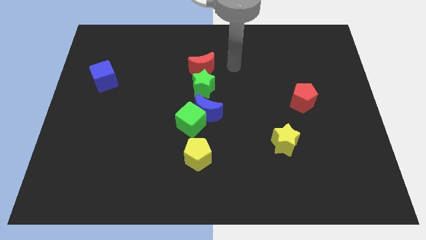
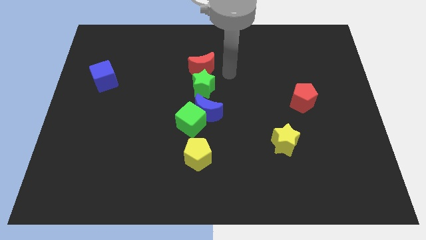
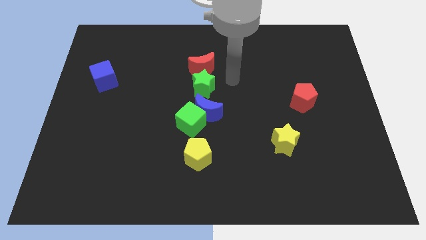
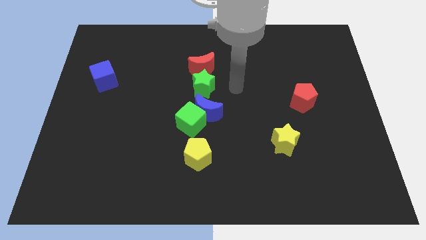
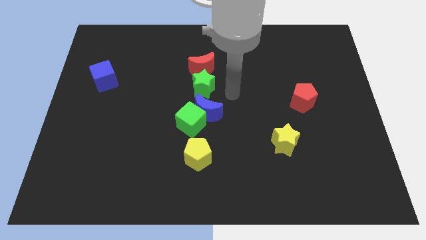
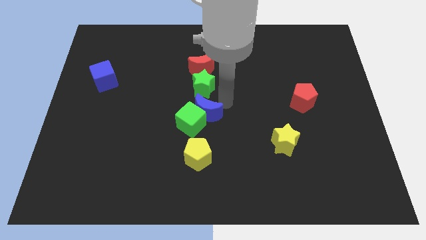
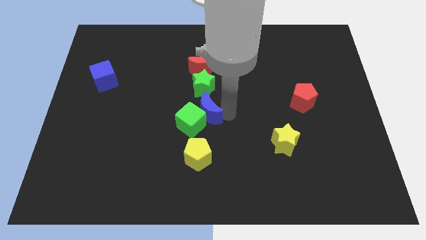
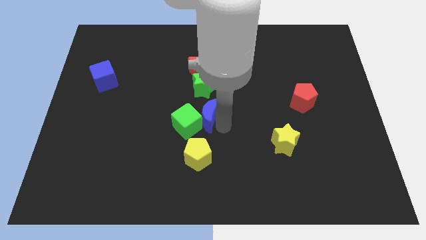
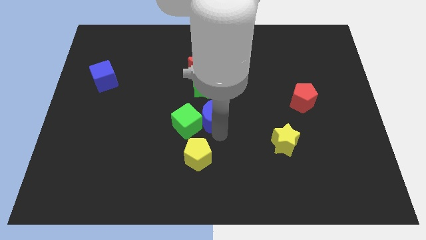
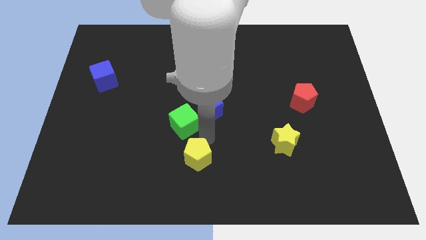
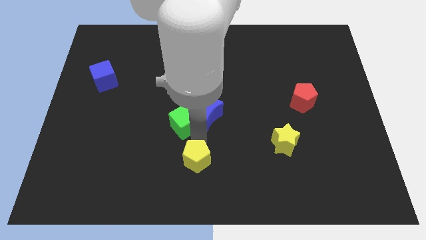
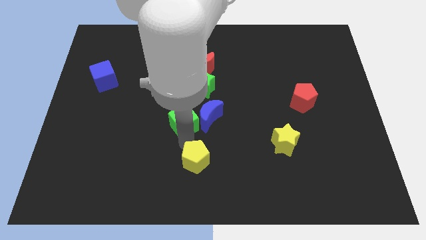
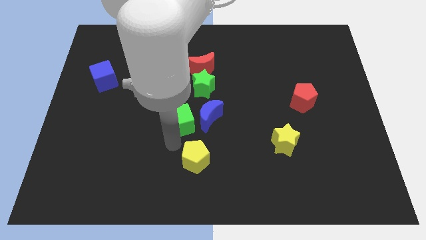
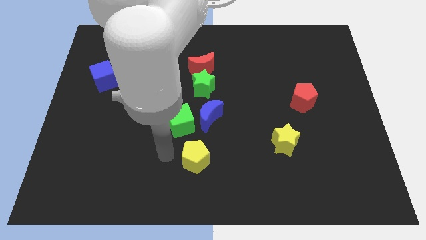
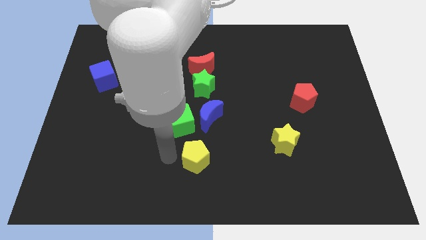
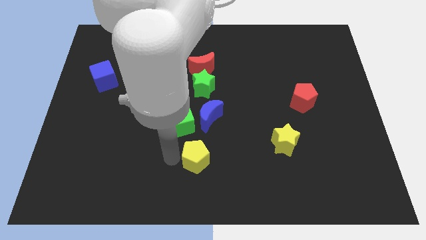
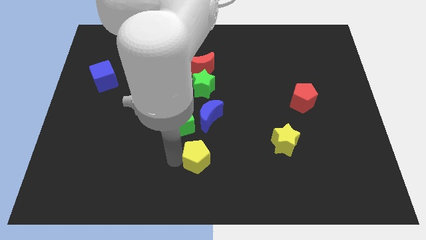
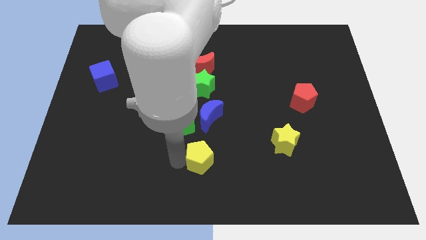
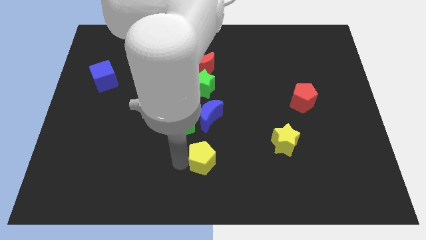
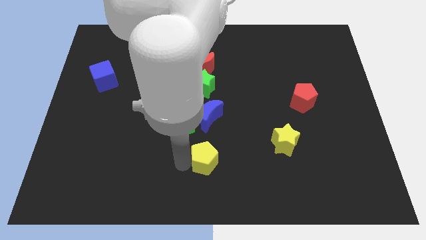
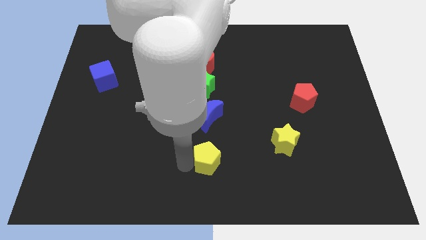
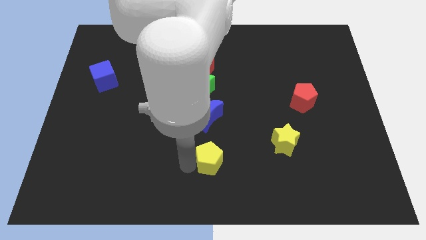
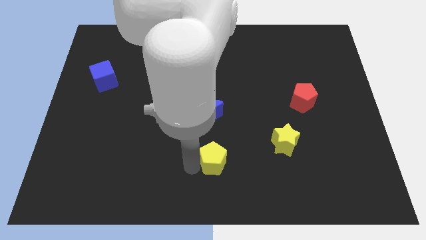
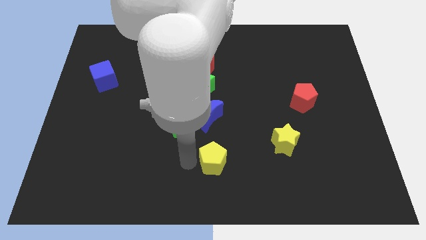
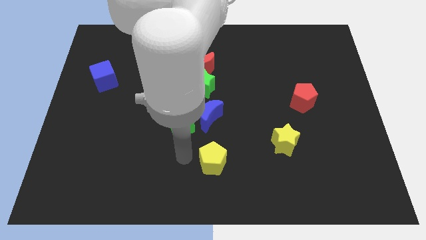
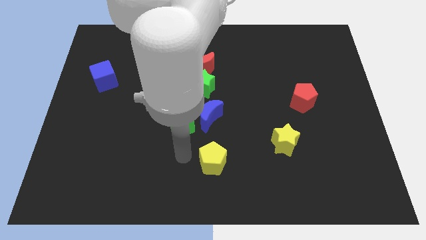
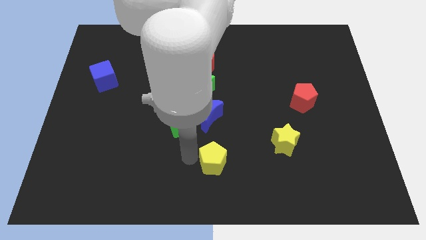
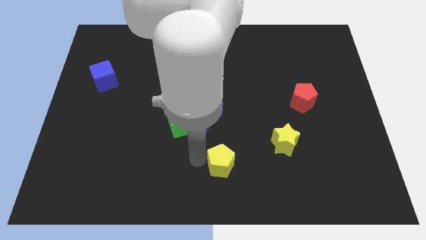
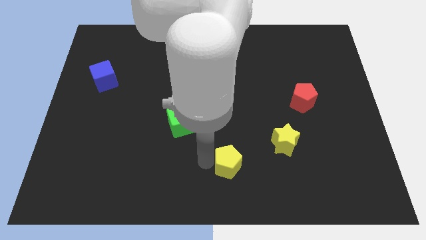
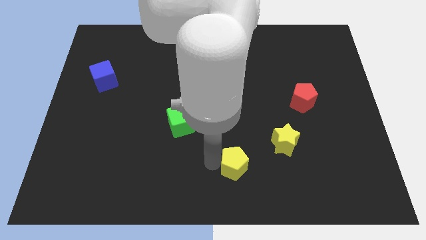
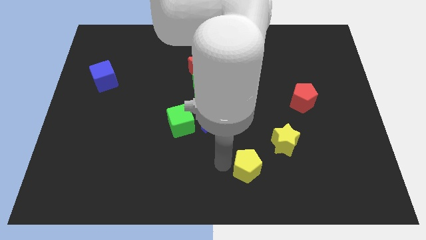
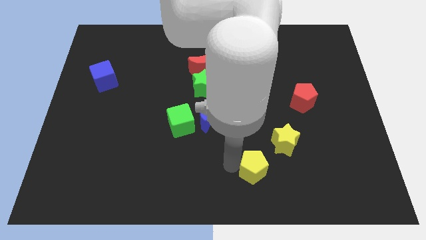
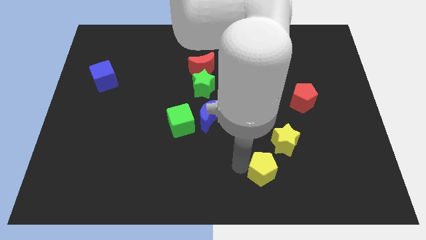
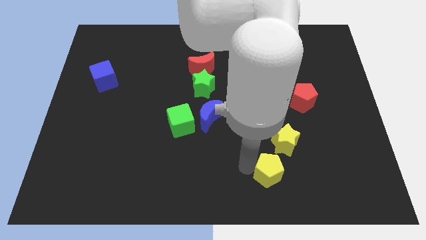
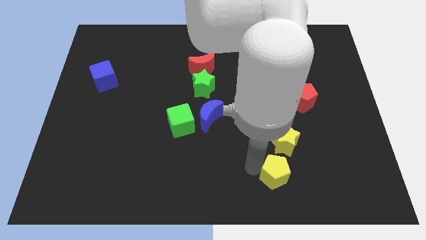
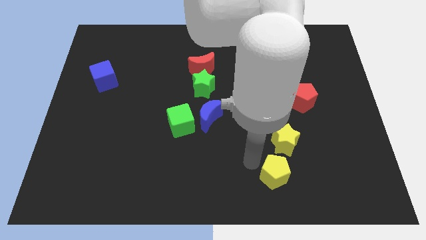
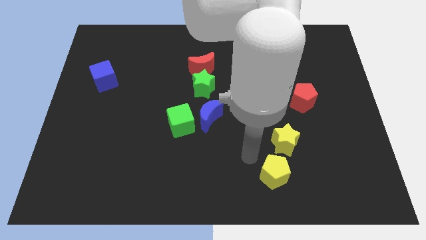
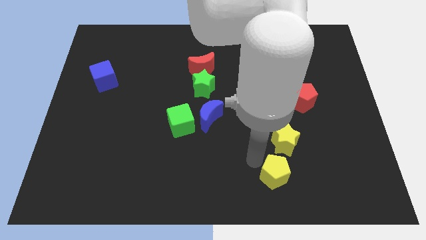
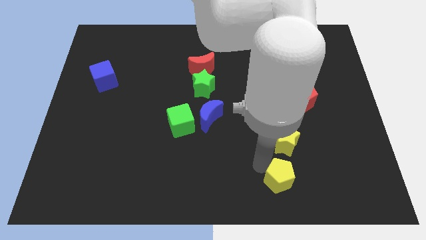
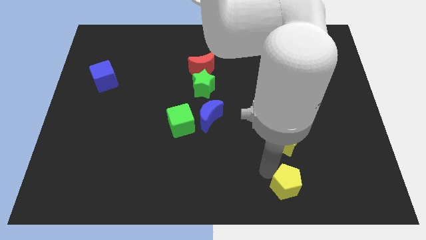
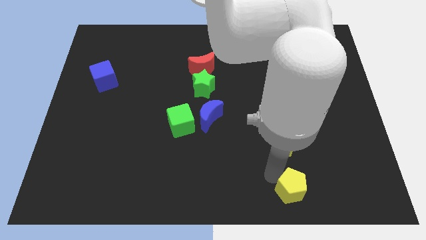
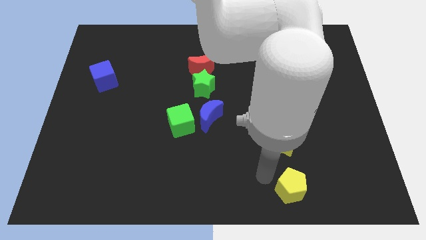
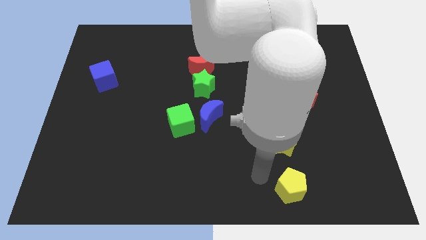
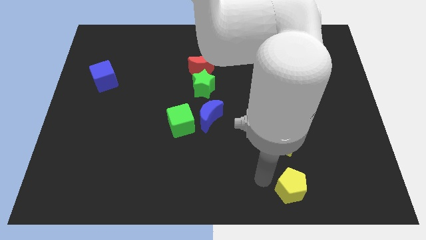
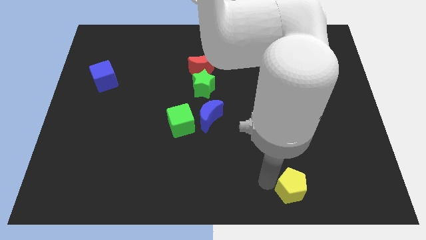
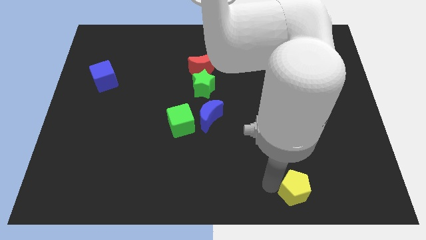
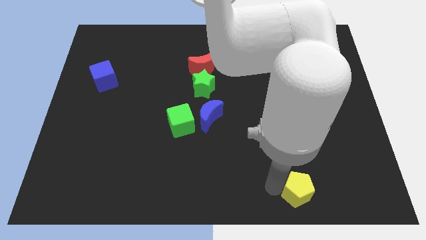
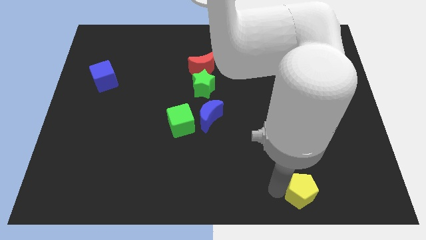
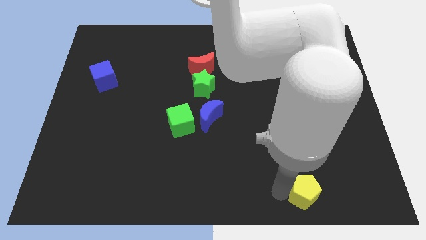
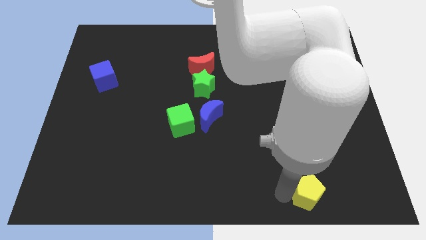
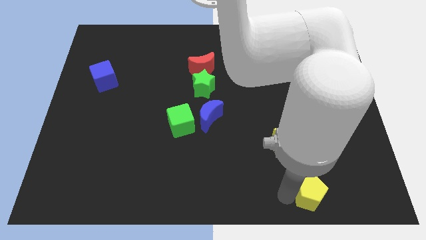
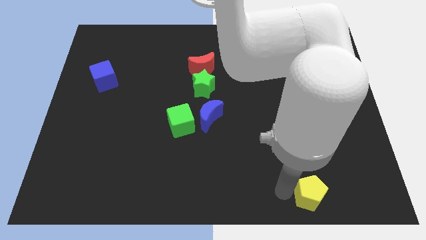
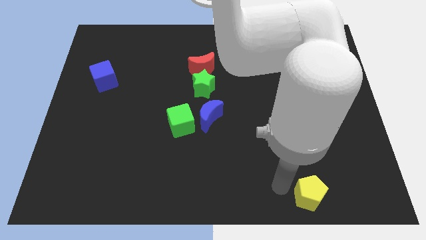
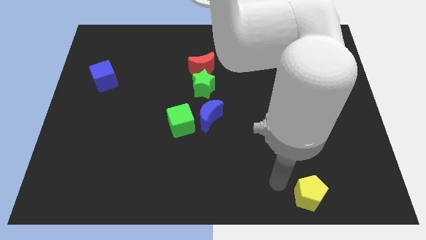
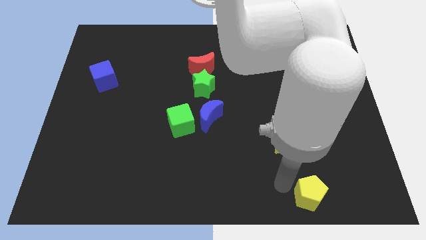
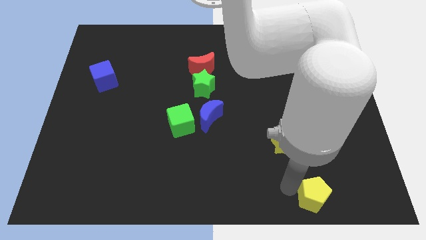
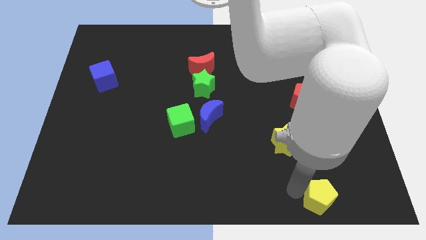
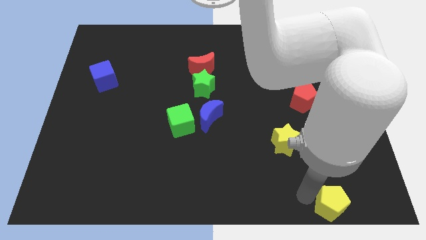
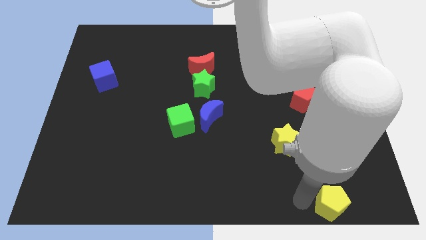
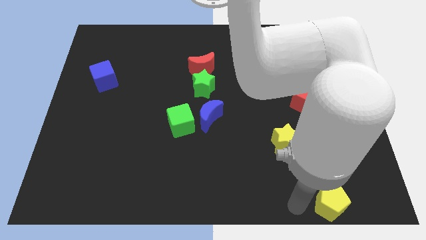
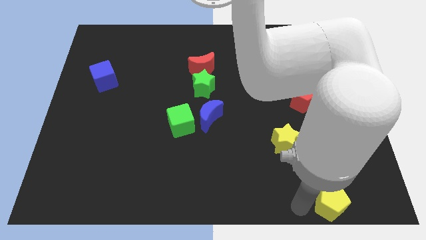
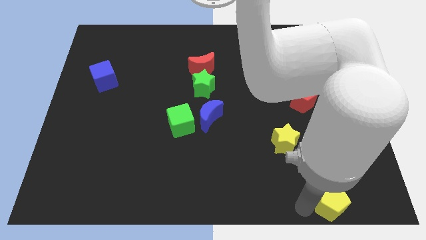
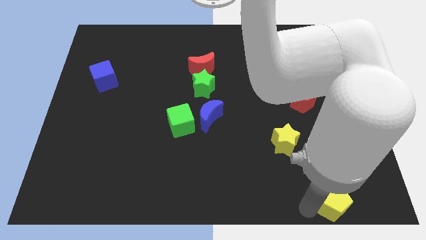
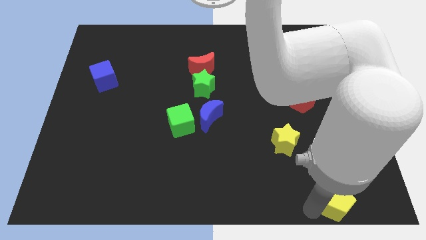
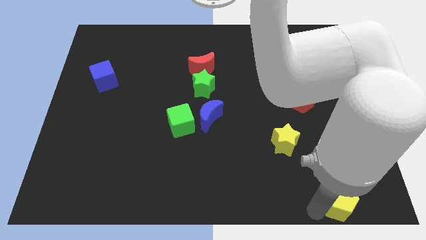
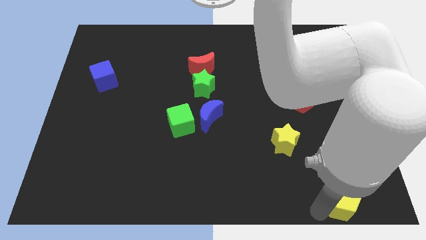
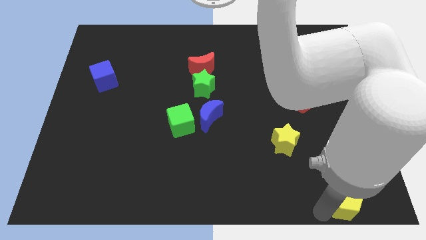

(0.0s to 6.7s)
slide the yellow pentagon to the bottom right of the board
